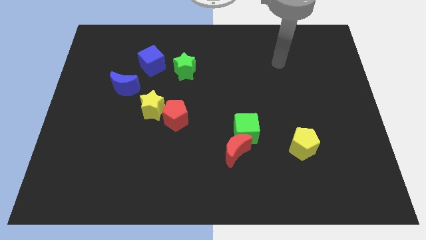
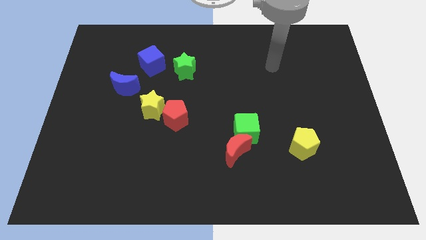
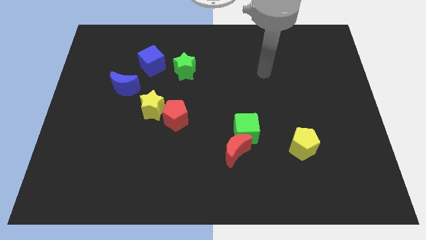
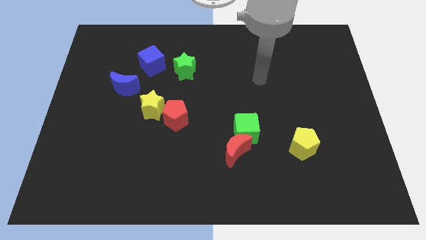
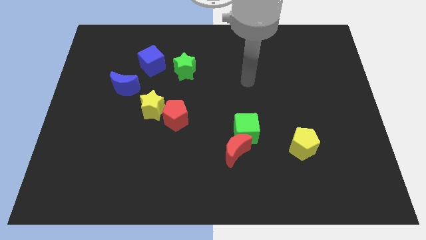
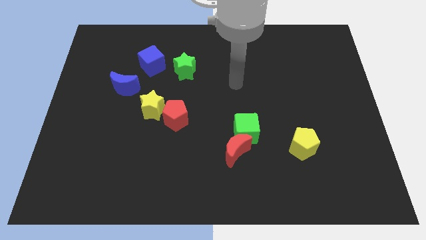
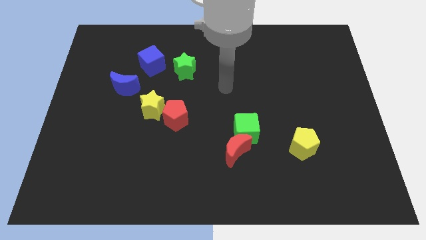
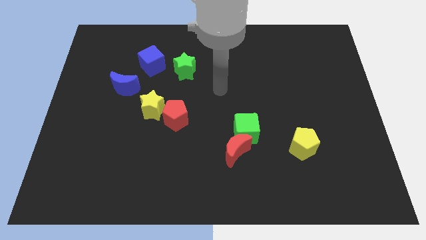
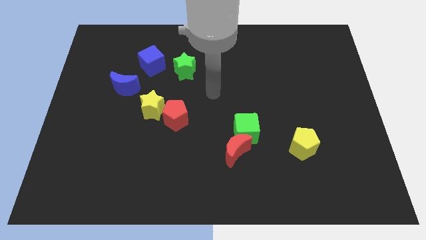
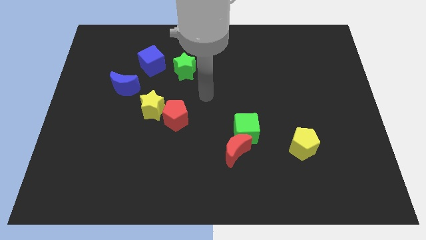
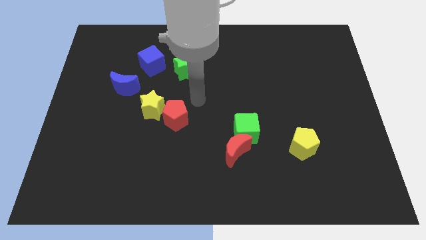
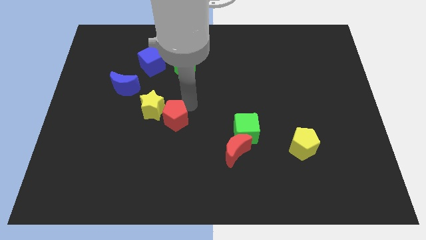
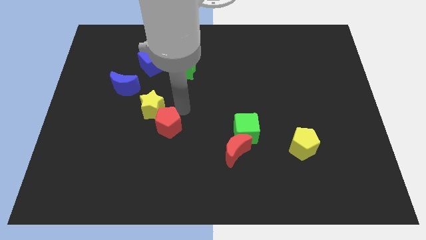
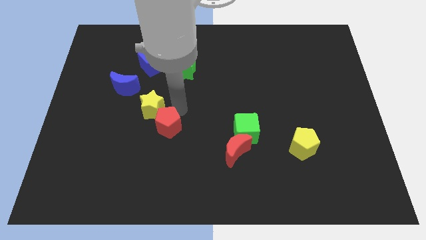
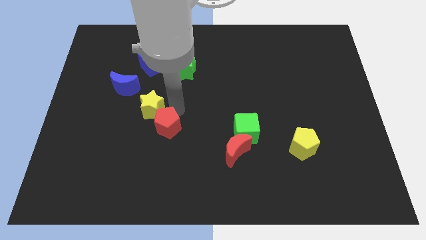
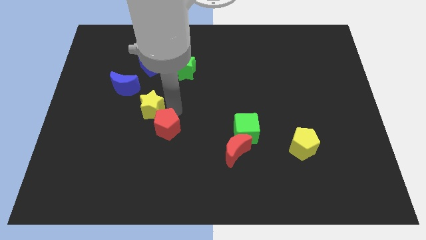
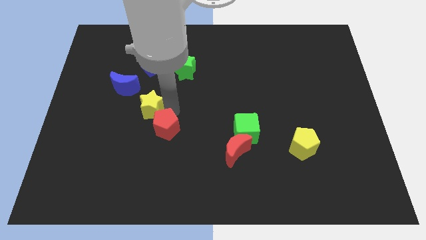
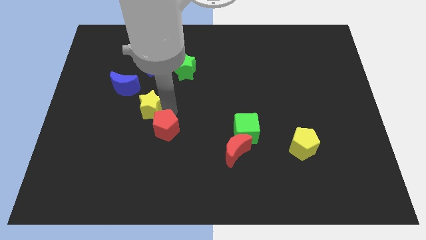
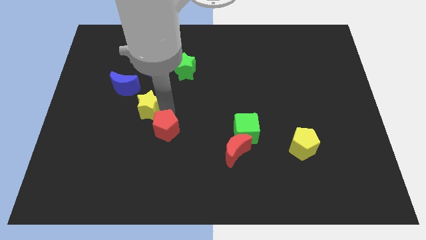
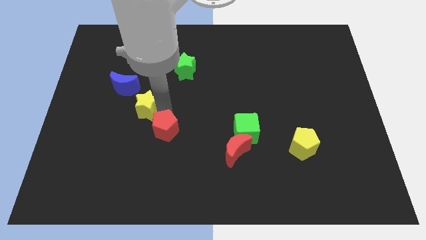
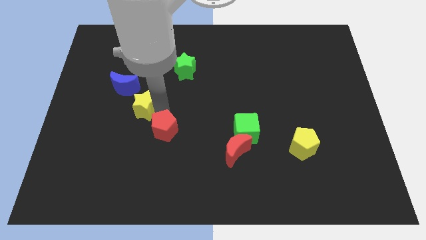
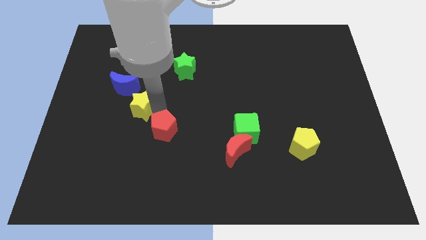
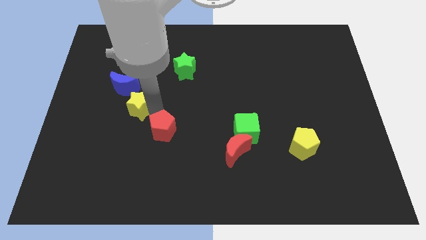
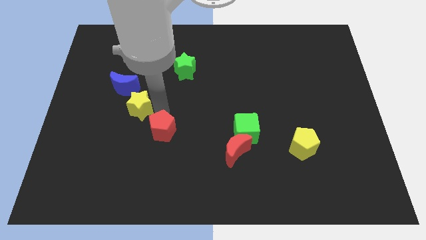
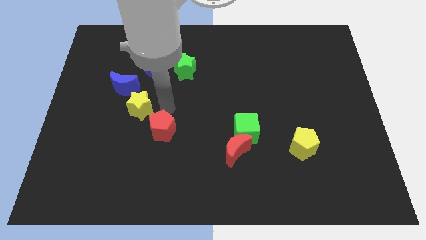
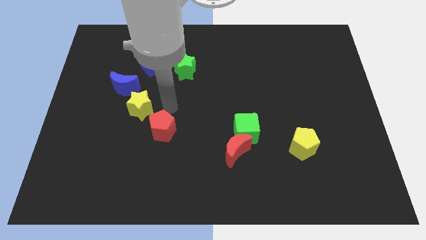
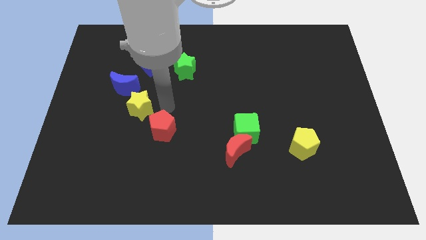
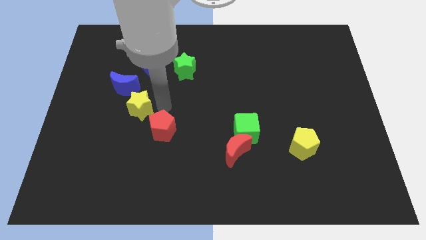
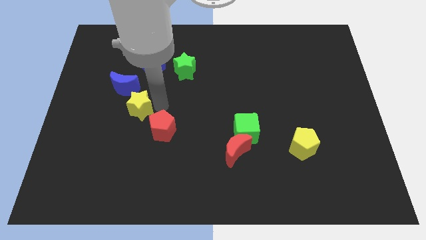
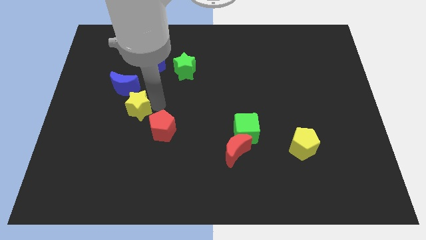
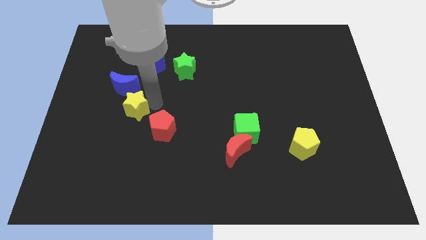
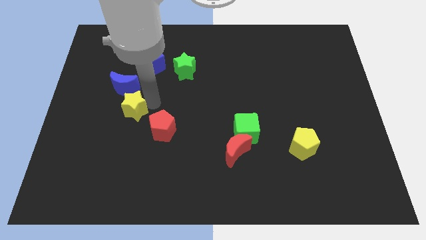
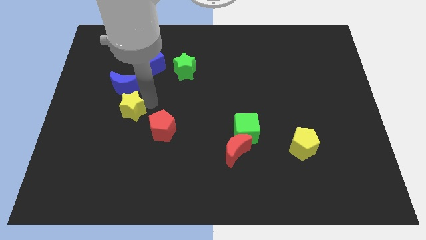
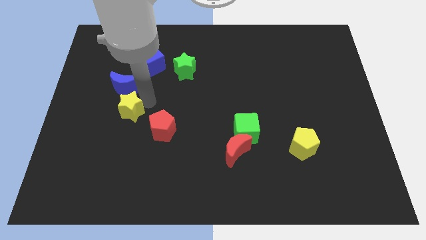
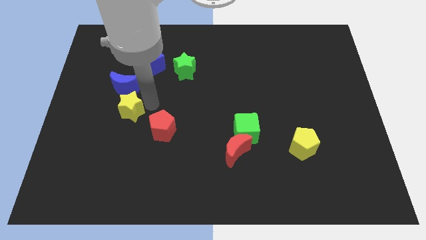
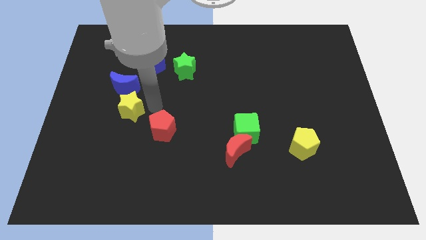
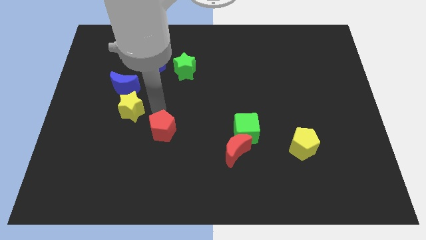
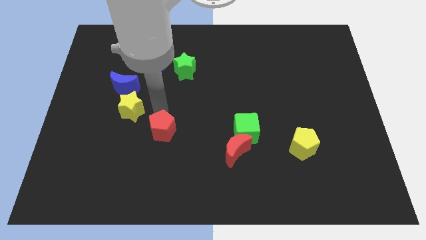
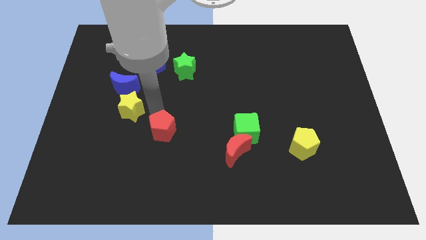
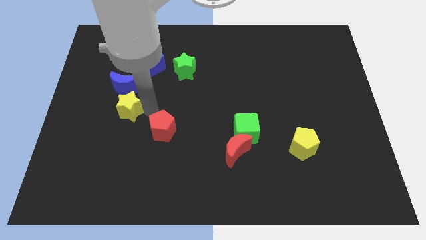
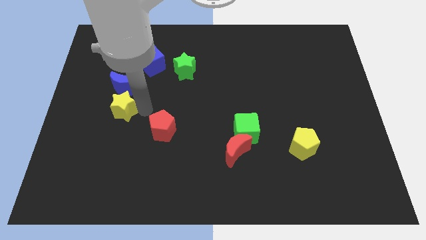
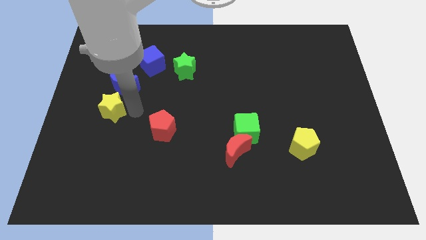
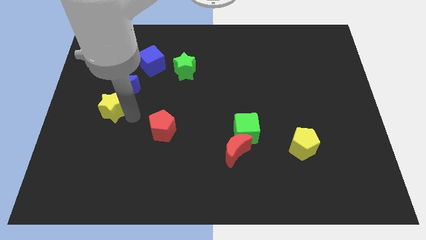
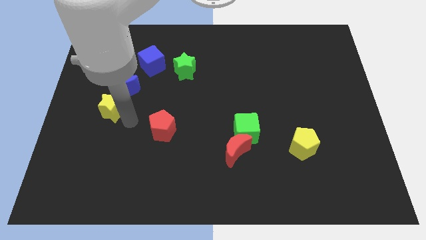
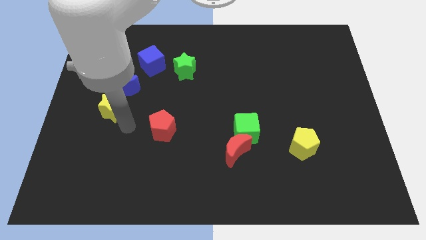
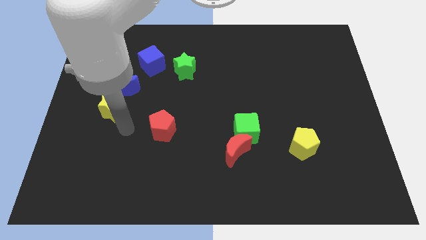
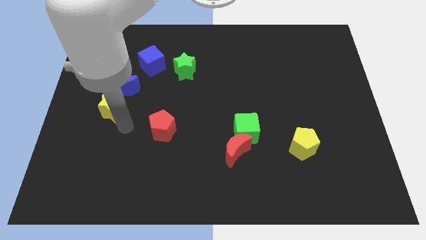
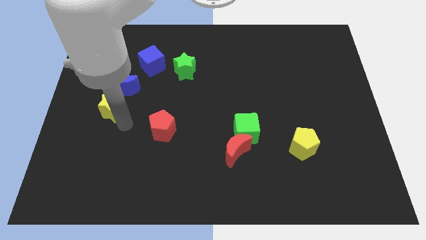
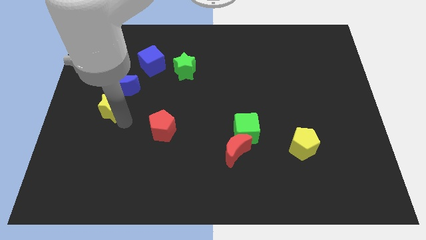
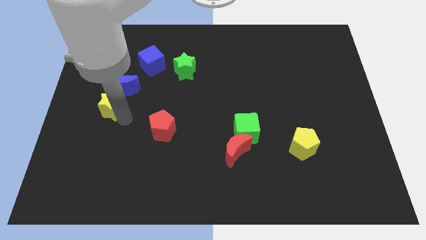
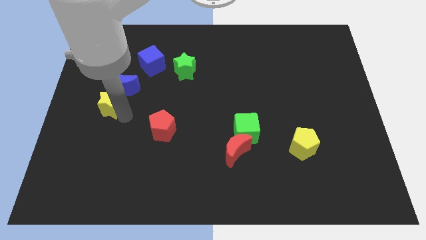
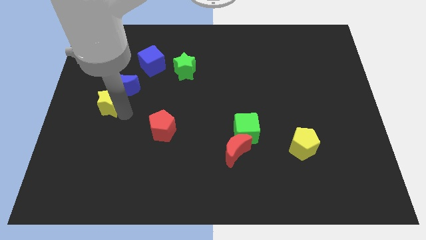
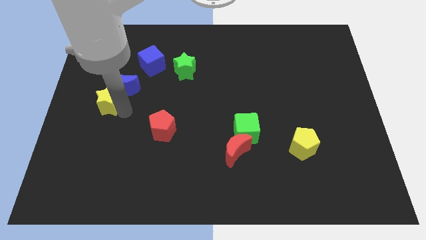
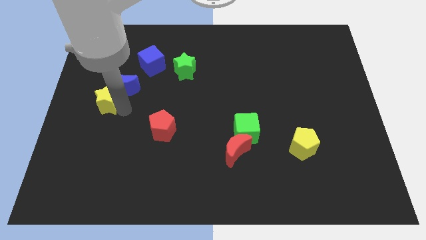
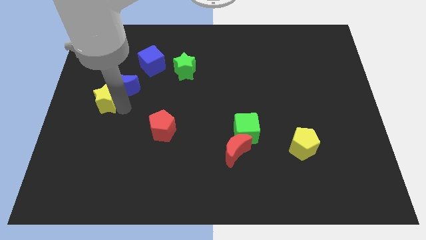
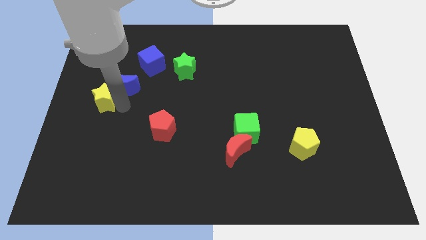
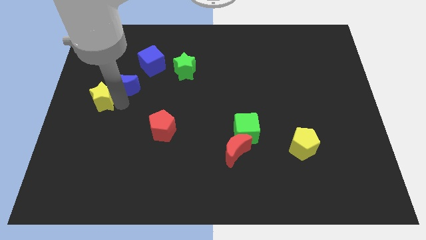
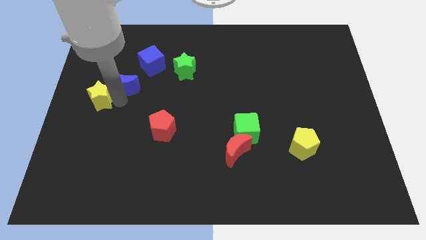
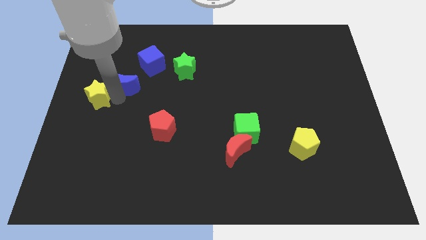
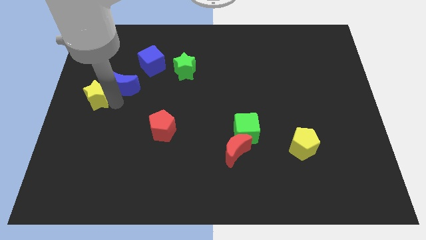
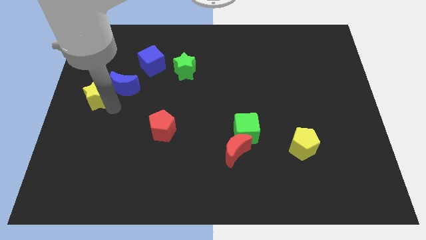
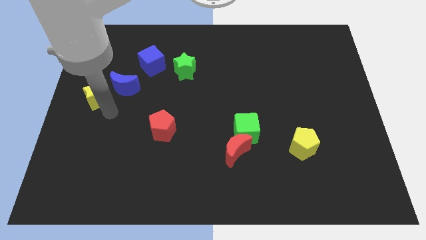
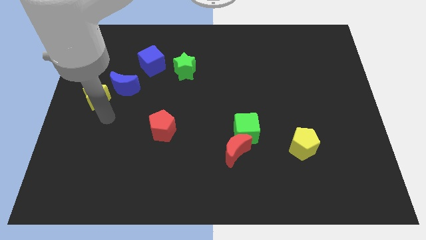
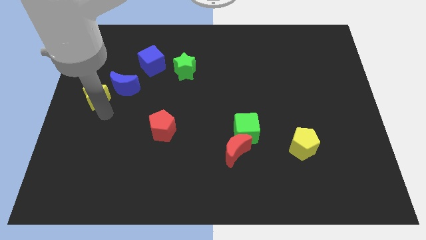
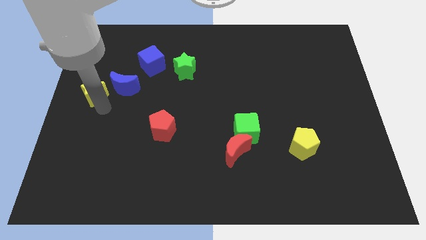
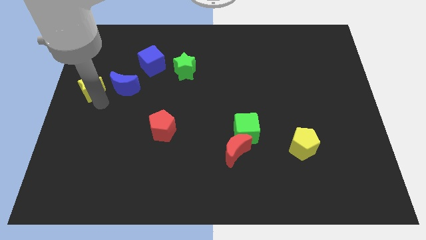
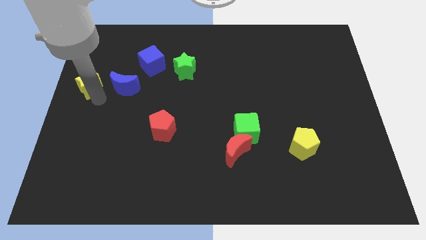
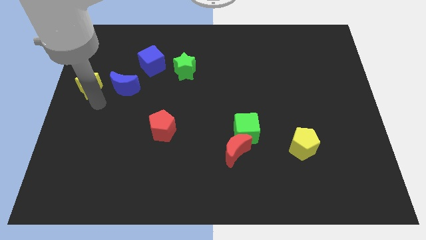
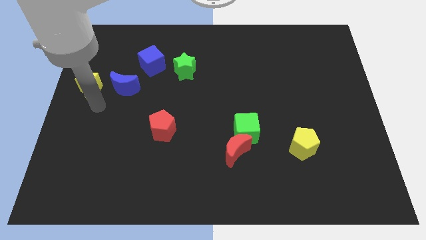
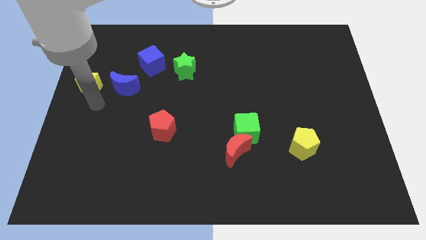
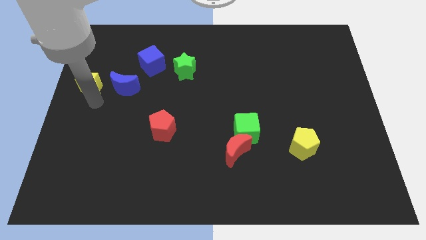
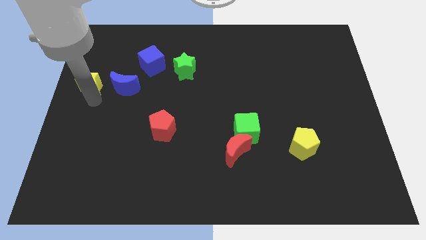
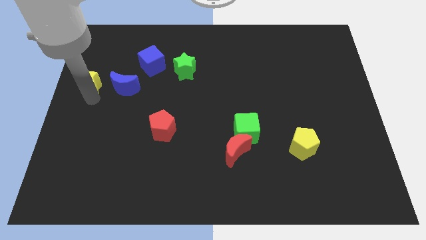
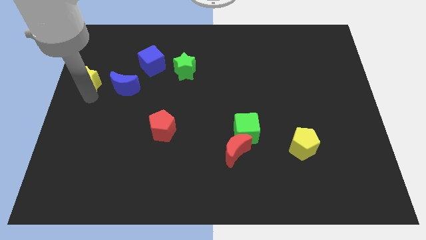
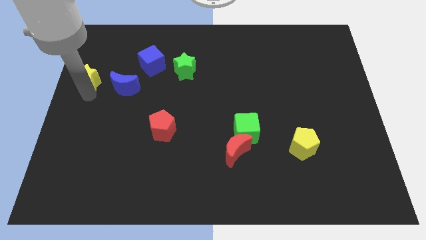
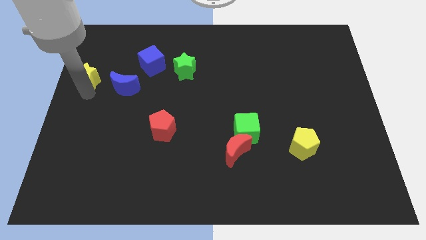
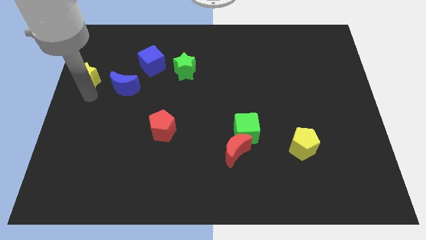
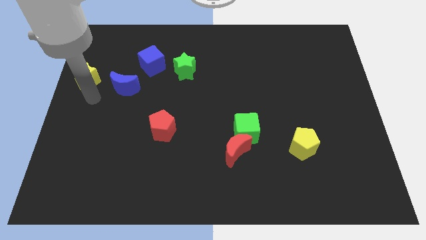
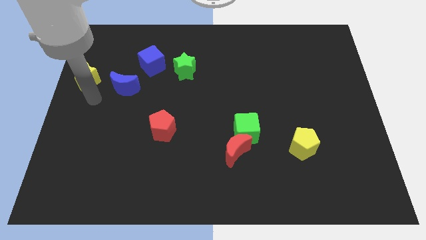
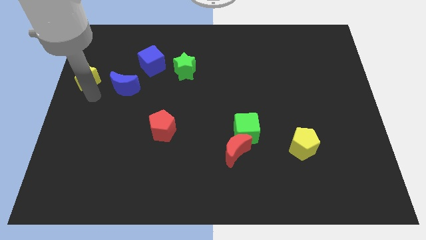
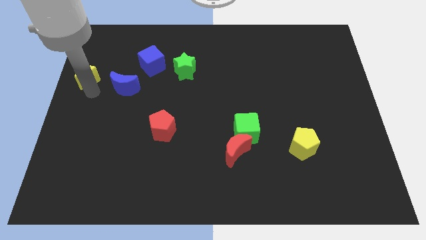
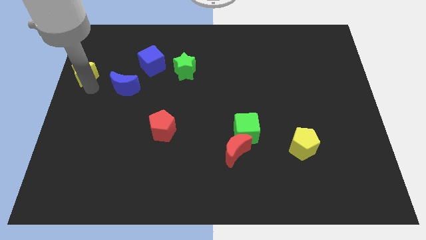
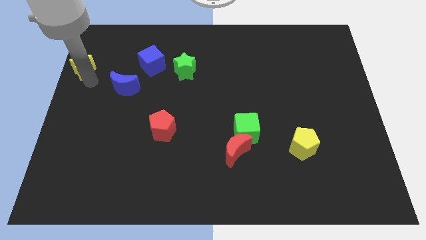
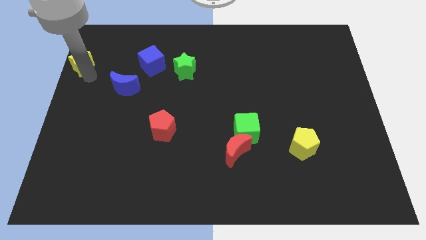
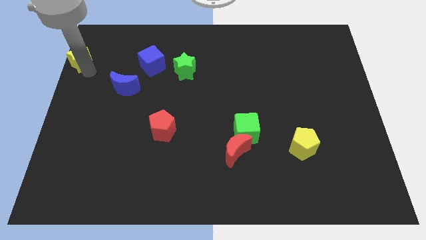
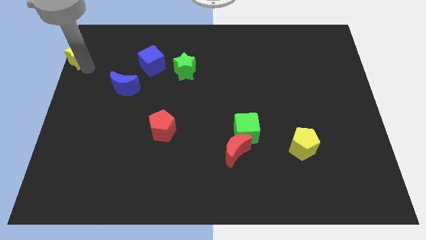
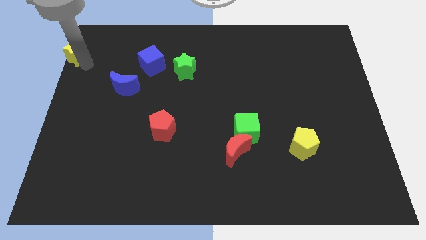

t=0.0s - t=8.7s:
move the yellow star to the top left corner
